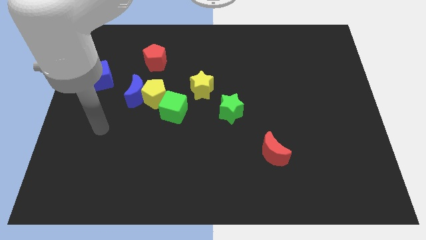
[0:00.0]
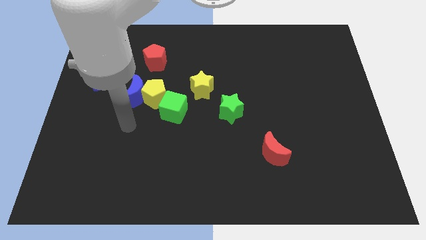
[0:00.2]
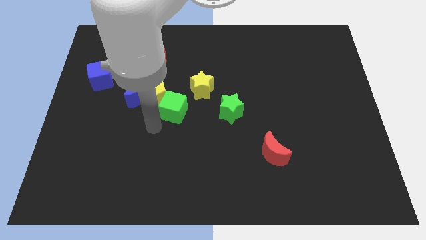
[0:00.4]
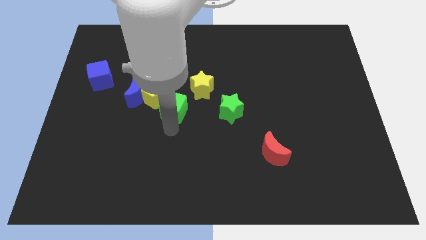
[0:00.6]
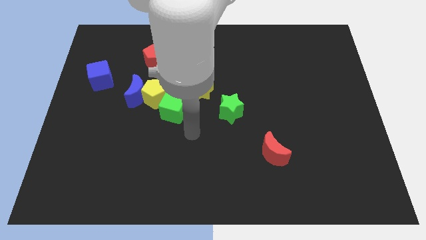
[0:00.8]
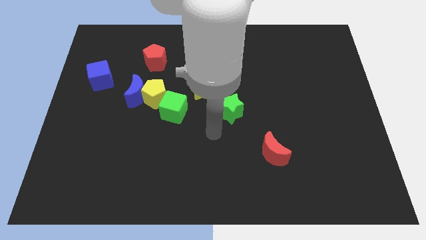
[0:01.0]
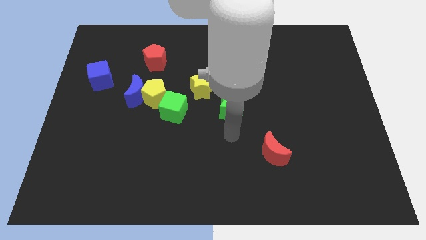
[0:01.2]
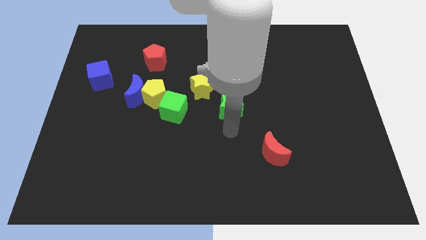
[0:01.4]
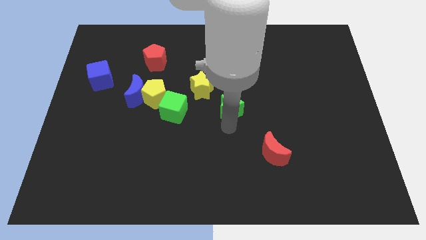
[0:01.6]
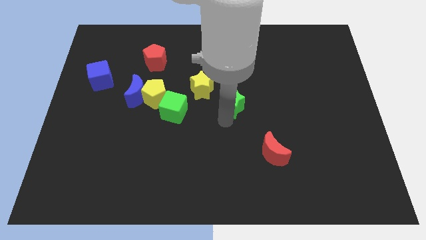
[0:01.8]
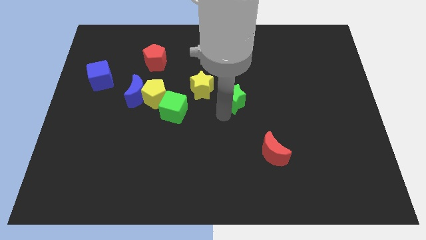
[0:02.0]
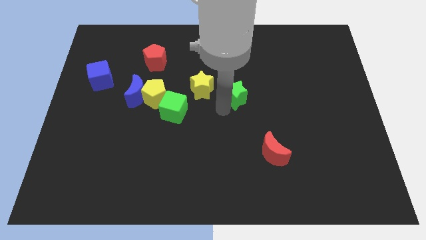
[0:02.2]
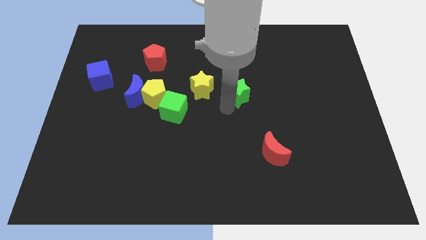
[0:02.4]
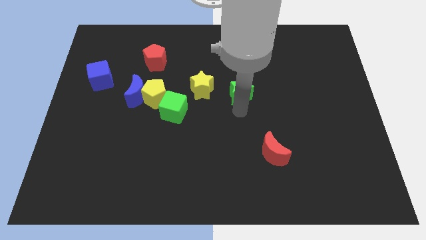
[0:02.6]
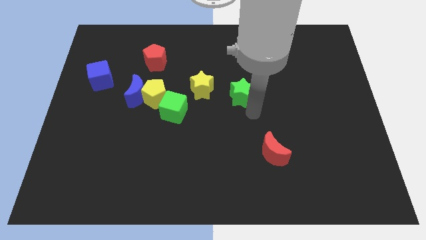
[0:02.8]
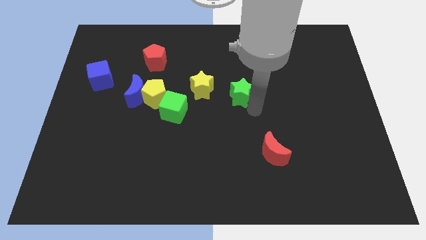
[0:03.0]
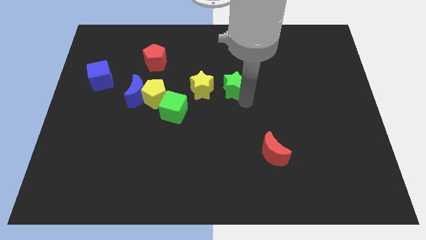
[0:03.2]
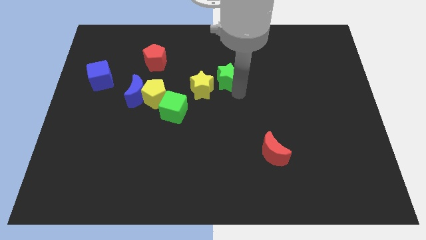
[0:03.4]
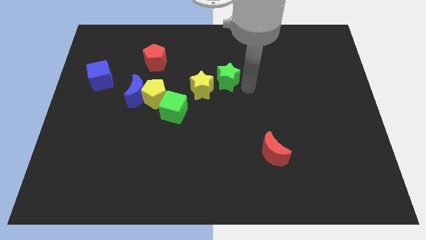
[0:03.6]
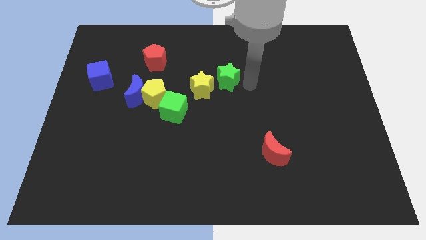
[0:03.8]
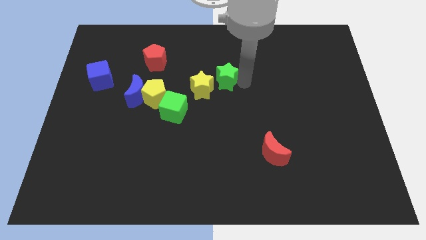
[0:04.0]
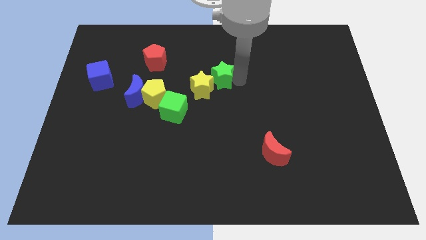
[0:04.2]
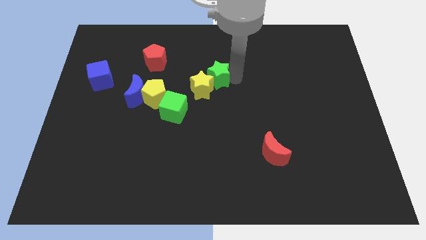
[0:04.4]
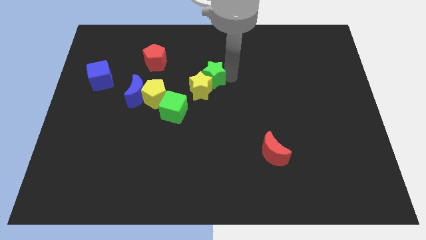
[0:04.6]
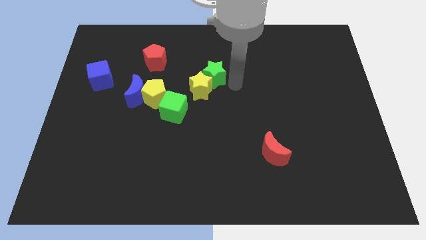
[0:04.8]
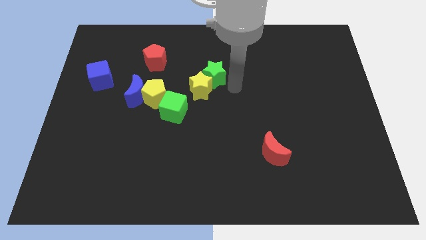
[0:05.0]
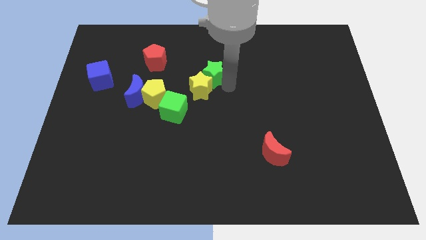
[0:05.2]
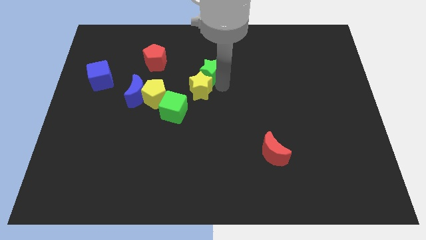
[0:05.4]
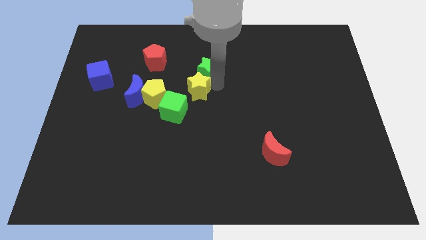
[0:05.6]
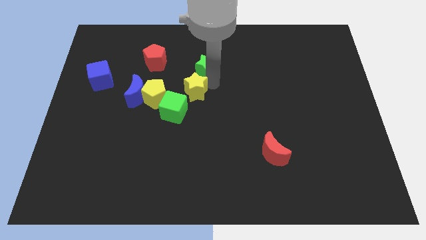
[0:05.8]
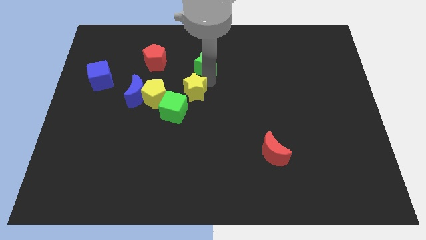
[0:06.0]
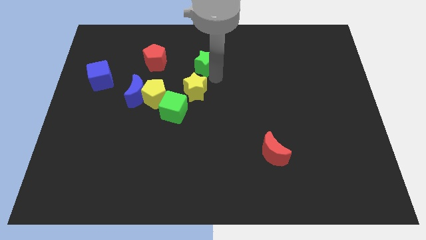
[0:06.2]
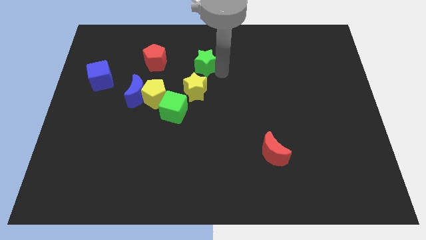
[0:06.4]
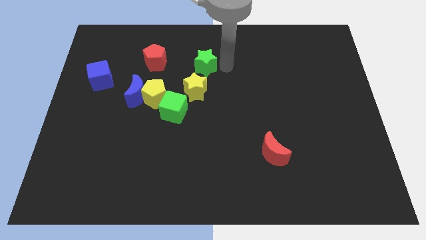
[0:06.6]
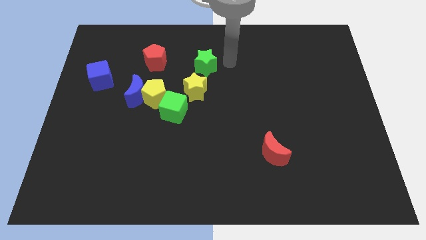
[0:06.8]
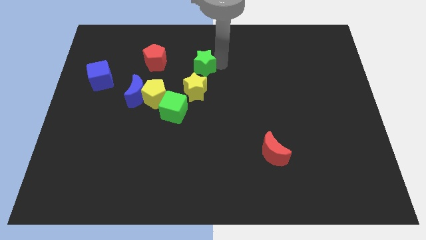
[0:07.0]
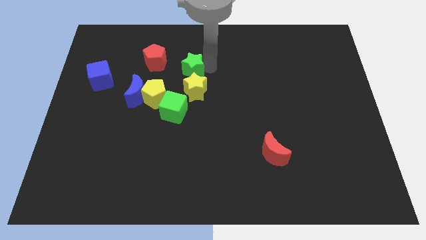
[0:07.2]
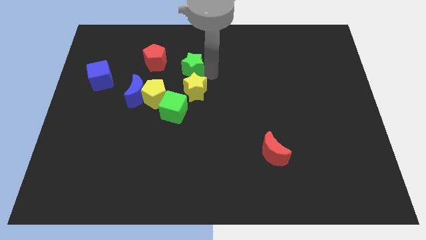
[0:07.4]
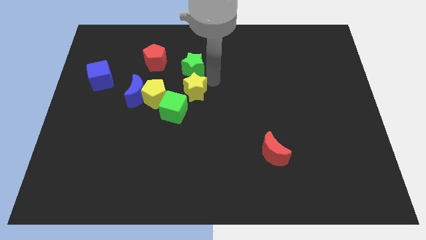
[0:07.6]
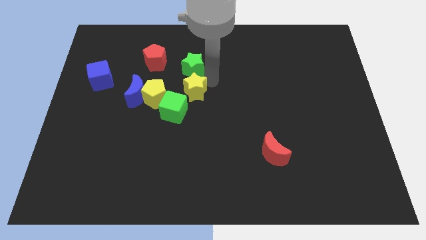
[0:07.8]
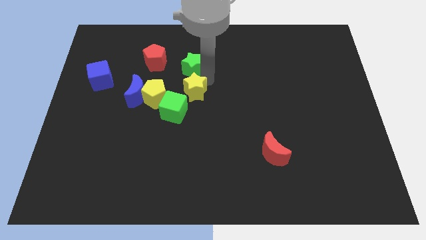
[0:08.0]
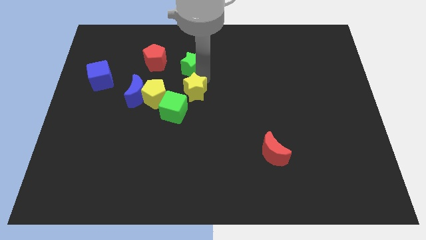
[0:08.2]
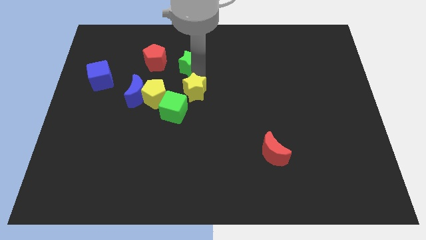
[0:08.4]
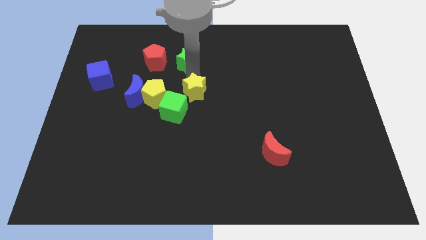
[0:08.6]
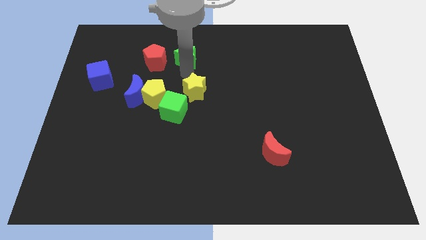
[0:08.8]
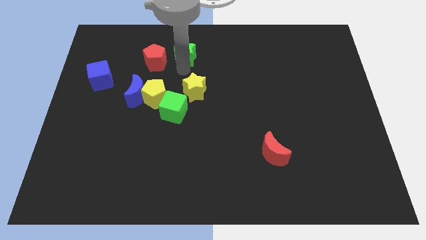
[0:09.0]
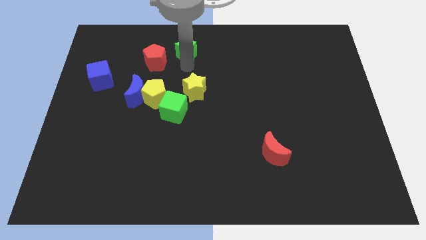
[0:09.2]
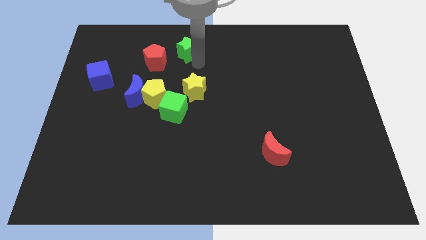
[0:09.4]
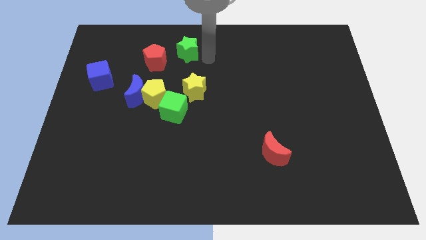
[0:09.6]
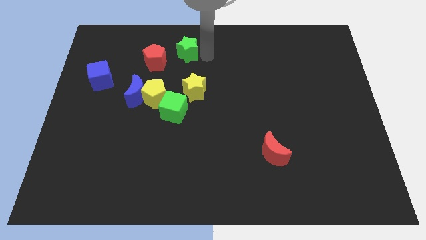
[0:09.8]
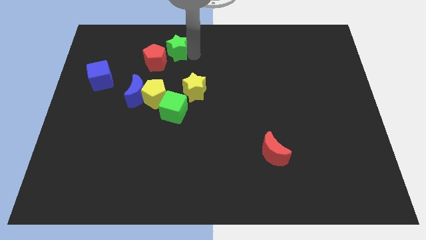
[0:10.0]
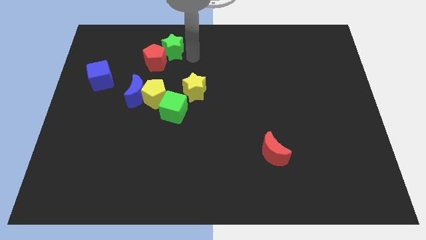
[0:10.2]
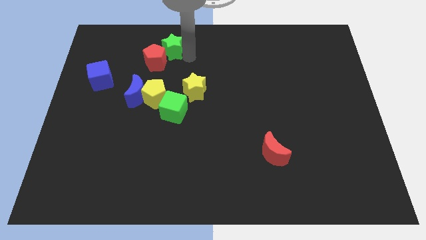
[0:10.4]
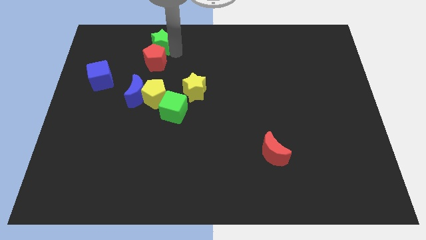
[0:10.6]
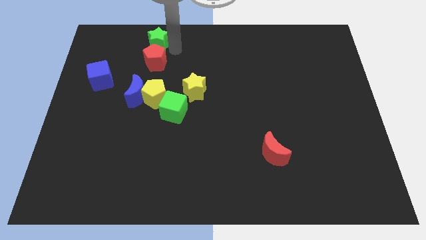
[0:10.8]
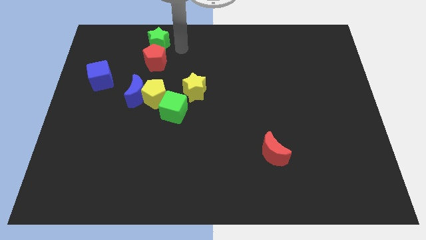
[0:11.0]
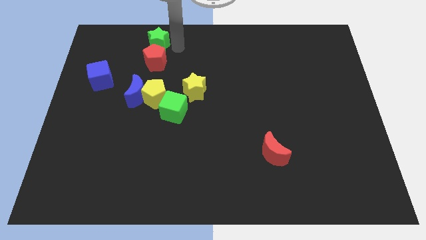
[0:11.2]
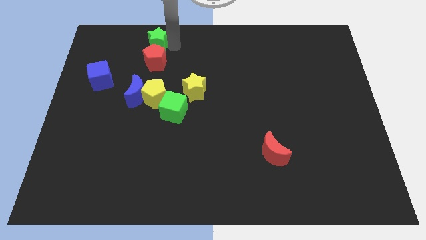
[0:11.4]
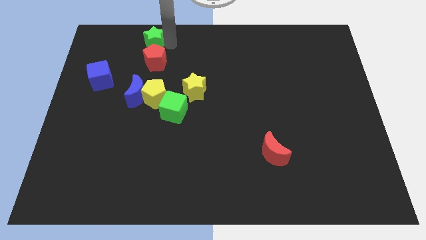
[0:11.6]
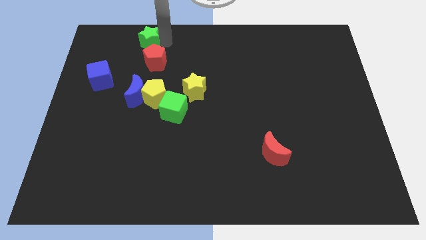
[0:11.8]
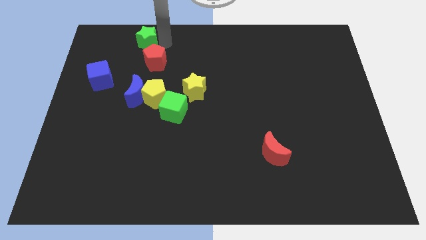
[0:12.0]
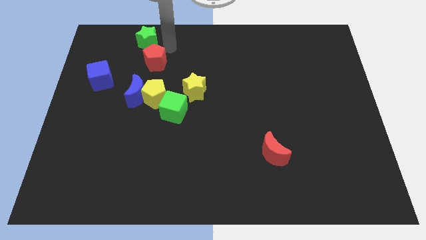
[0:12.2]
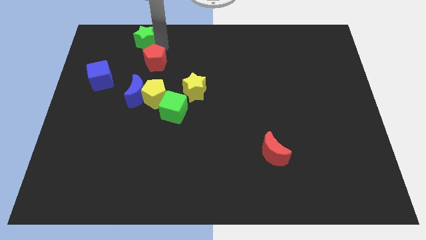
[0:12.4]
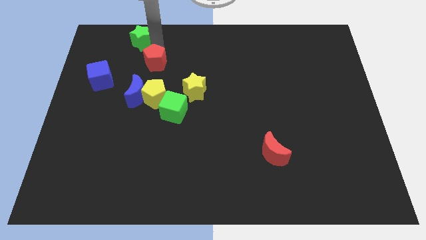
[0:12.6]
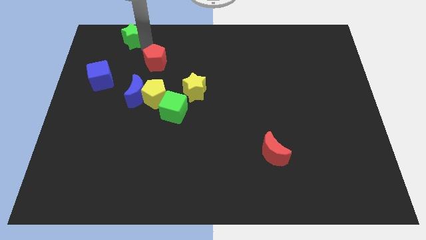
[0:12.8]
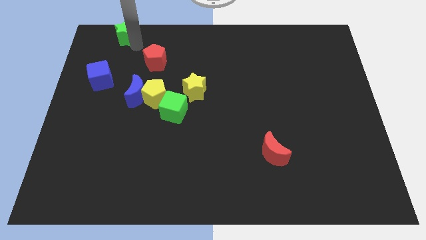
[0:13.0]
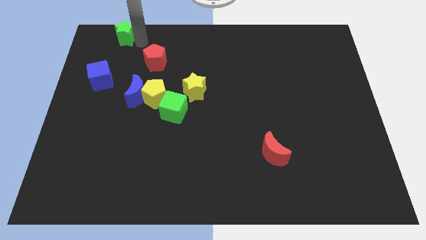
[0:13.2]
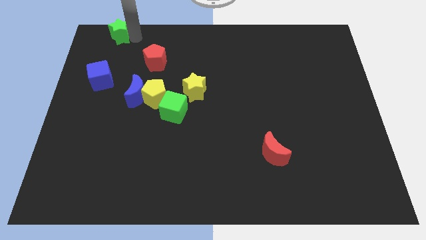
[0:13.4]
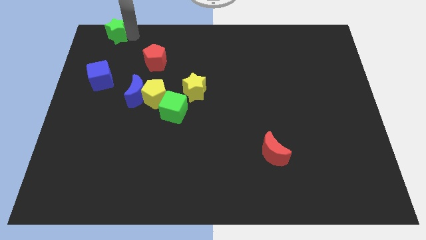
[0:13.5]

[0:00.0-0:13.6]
push the green star to the top left of the board
